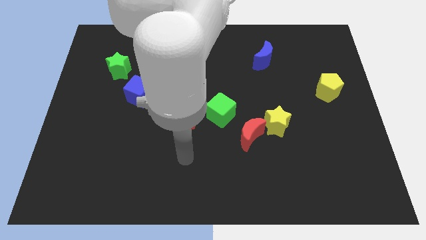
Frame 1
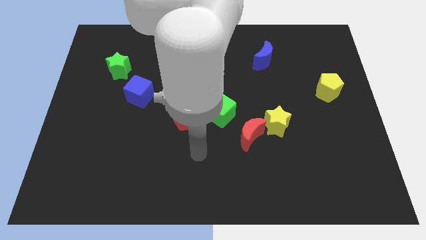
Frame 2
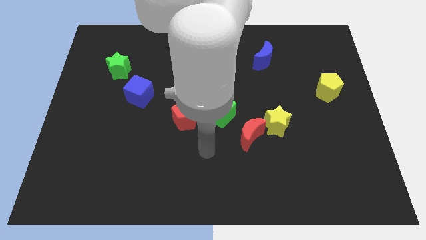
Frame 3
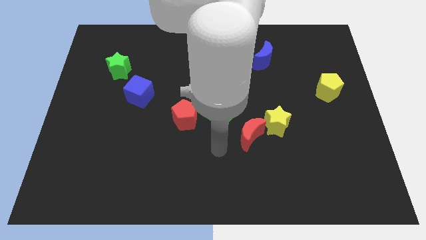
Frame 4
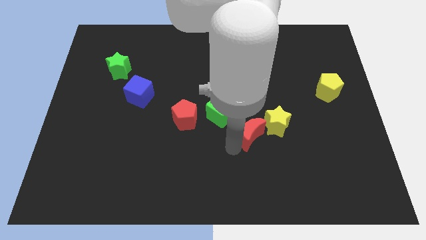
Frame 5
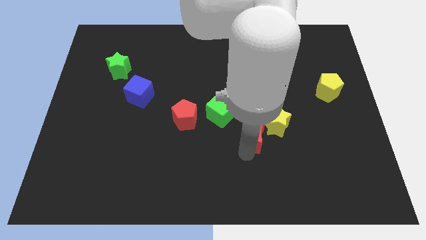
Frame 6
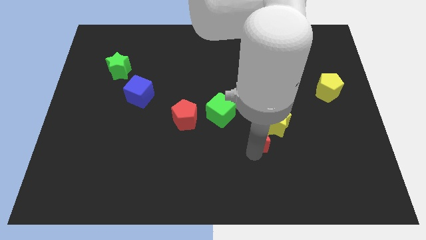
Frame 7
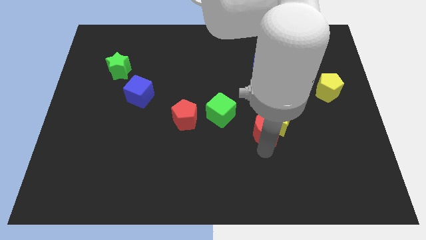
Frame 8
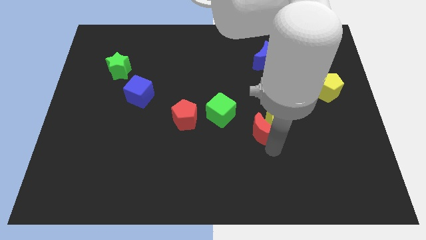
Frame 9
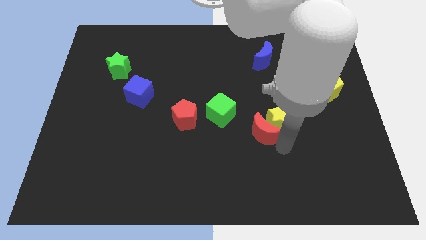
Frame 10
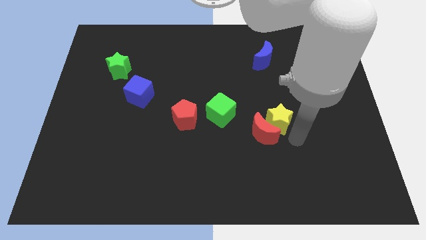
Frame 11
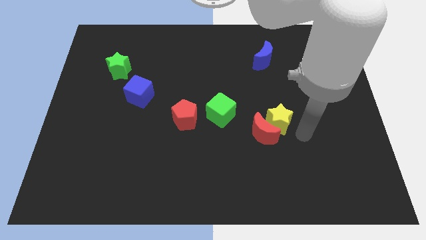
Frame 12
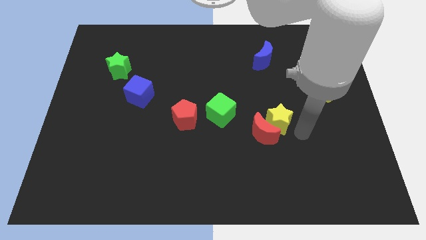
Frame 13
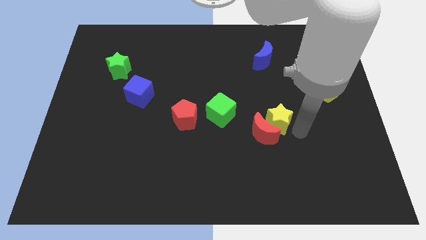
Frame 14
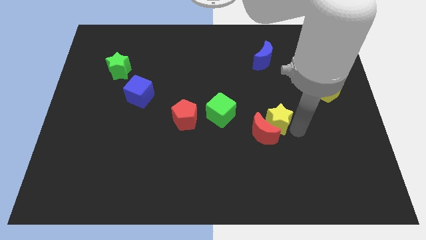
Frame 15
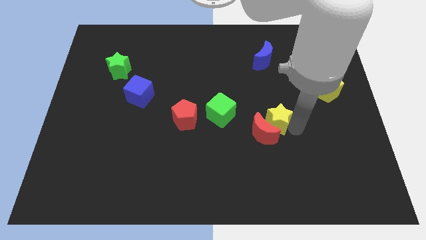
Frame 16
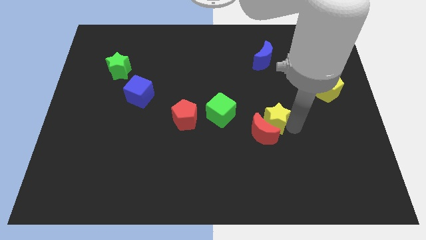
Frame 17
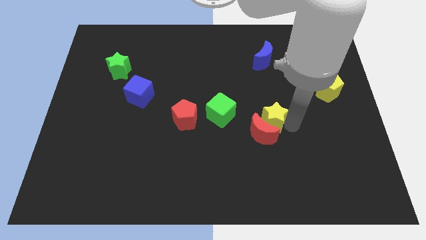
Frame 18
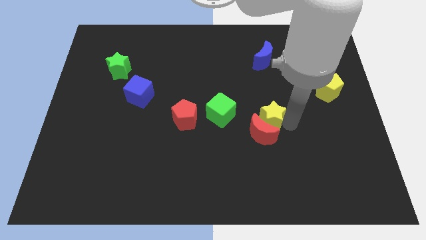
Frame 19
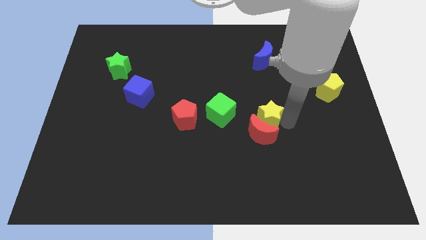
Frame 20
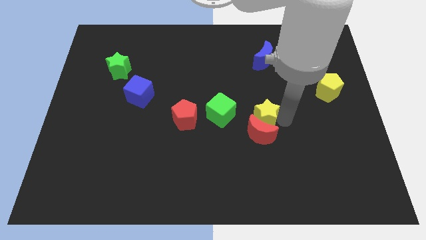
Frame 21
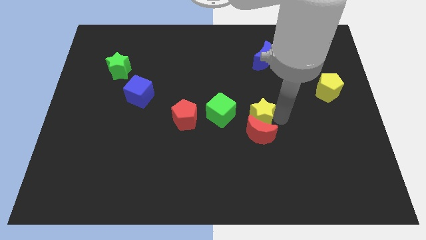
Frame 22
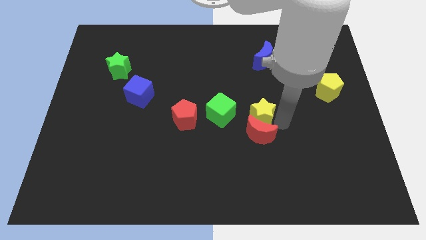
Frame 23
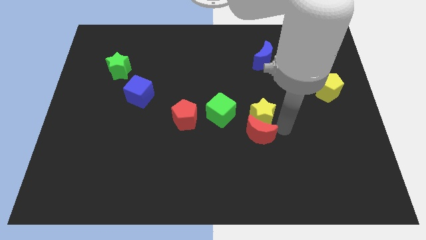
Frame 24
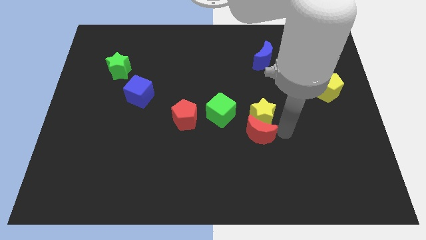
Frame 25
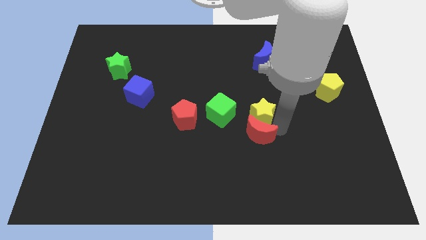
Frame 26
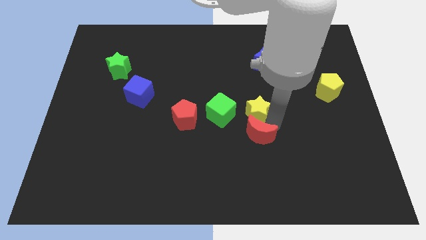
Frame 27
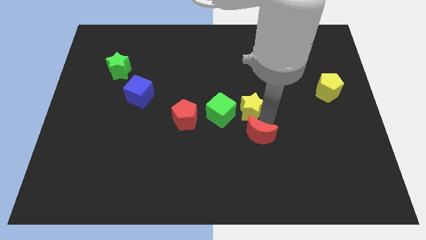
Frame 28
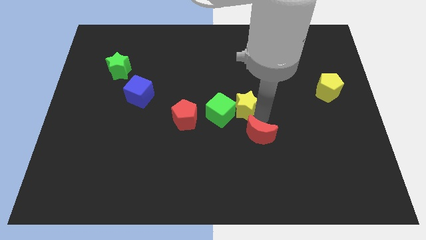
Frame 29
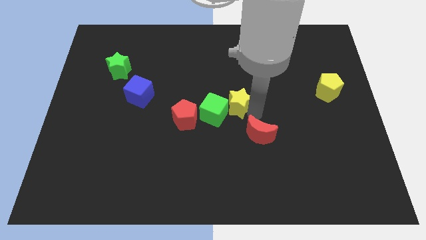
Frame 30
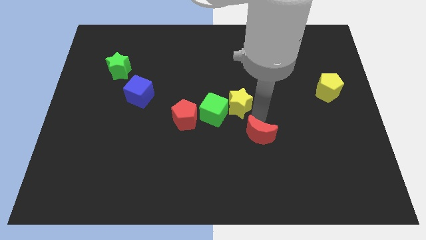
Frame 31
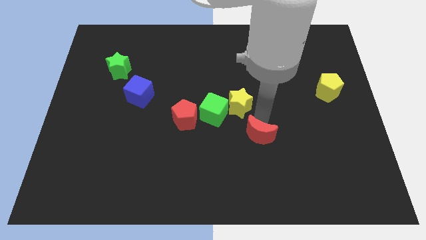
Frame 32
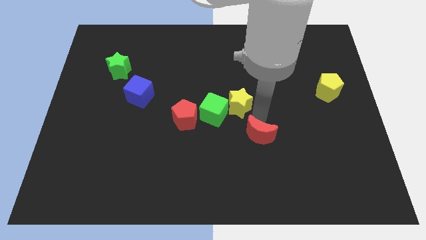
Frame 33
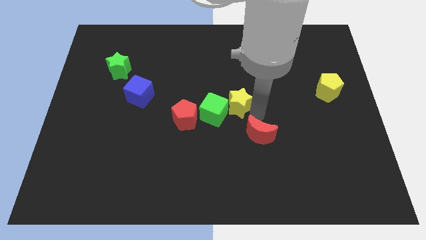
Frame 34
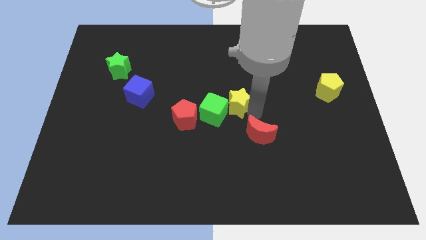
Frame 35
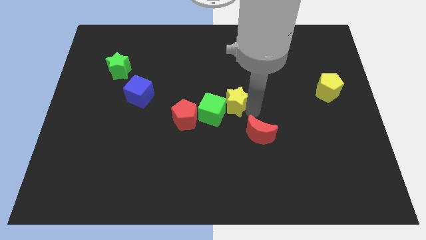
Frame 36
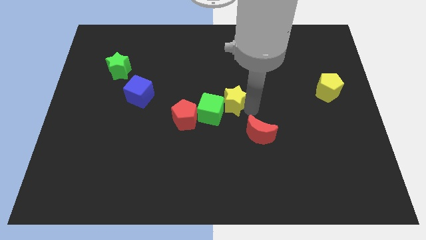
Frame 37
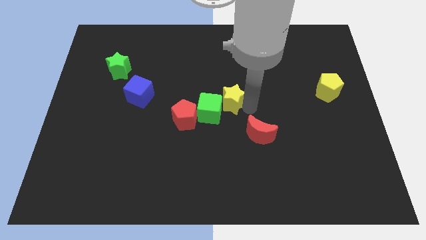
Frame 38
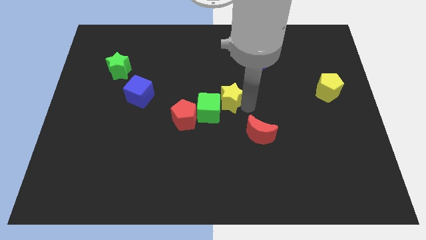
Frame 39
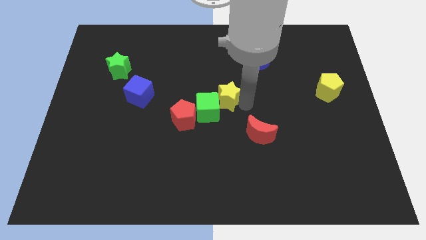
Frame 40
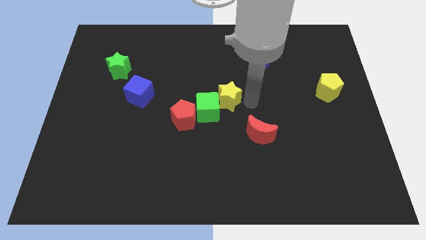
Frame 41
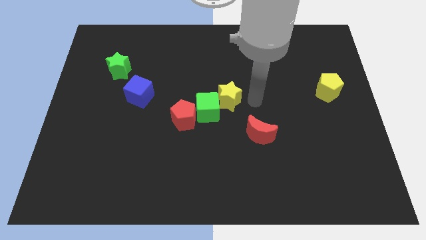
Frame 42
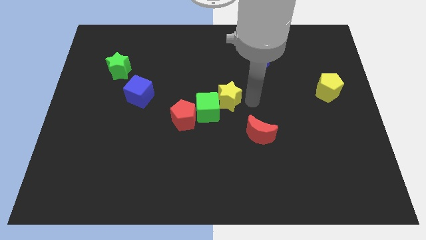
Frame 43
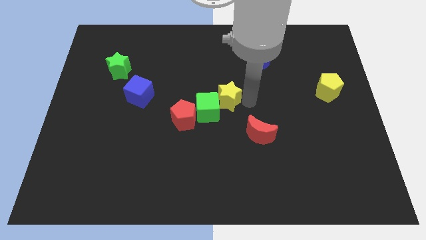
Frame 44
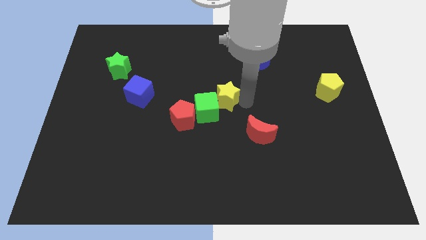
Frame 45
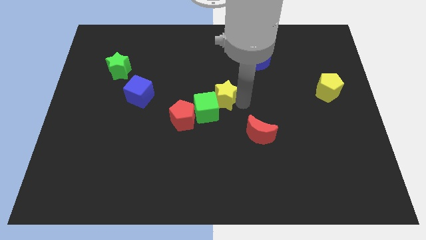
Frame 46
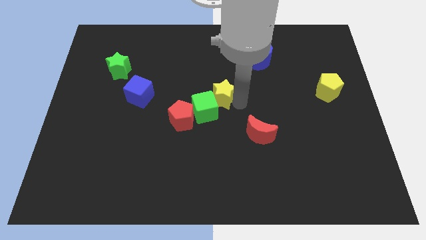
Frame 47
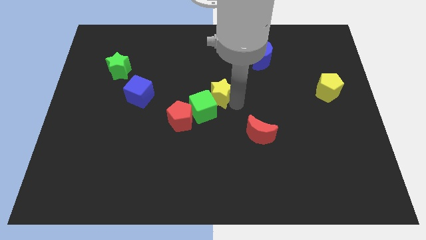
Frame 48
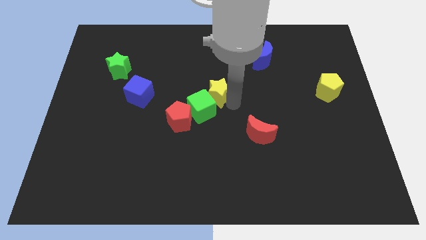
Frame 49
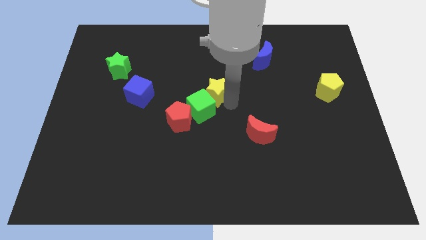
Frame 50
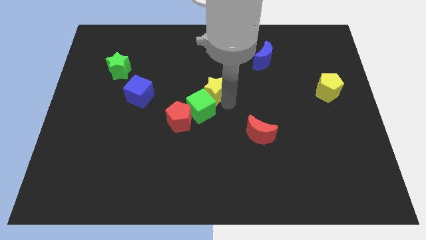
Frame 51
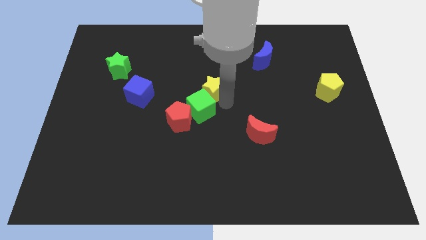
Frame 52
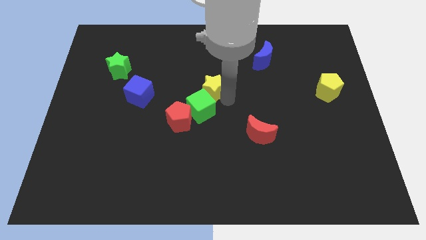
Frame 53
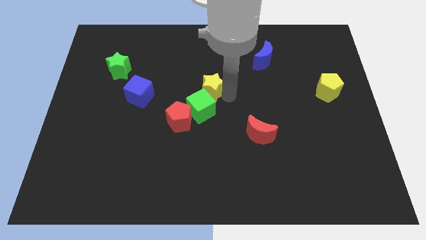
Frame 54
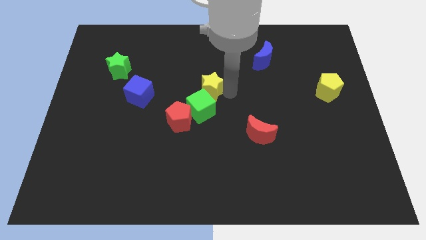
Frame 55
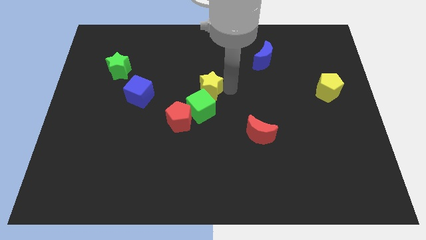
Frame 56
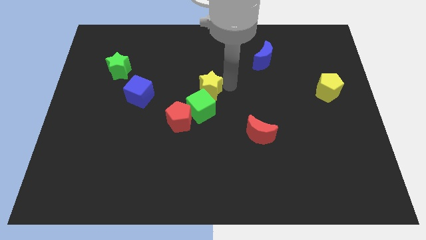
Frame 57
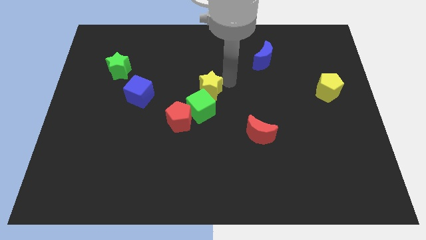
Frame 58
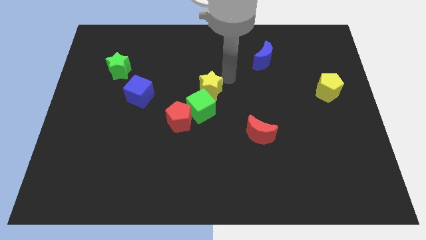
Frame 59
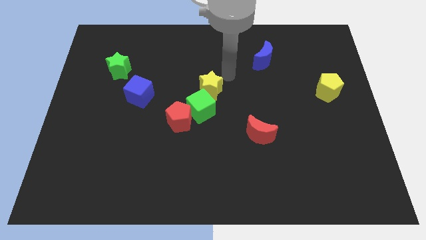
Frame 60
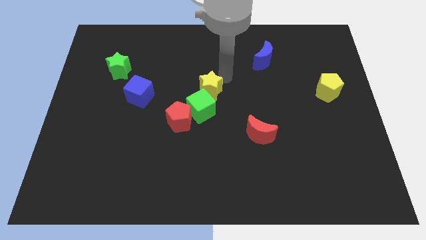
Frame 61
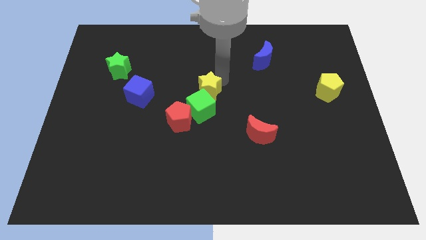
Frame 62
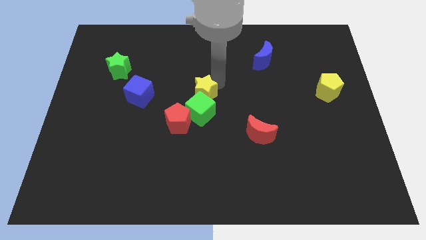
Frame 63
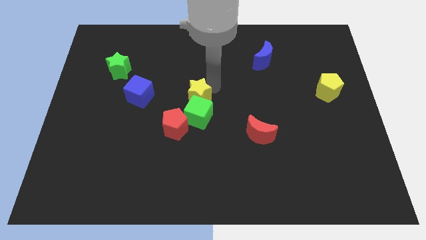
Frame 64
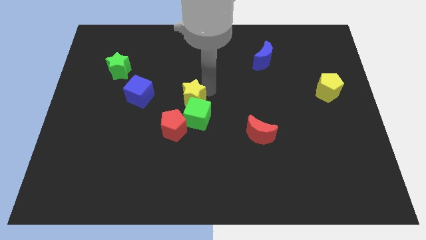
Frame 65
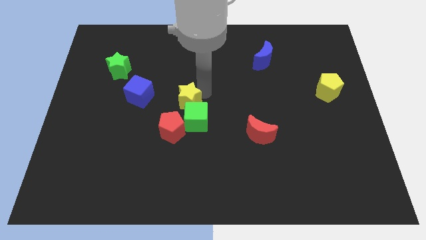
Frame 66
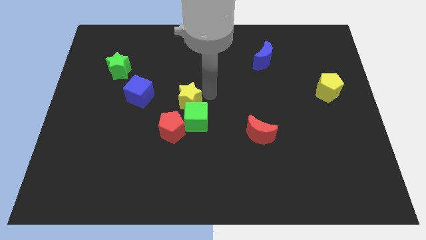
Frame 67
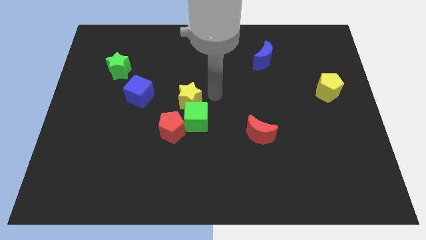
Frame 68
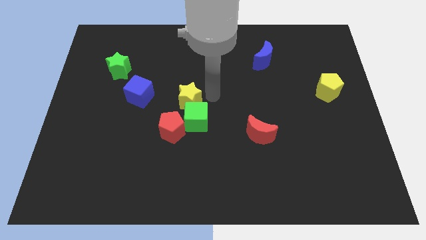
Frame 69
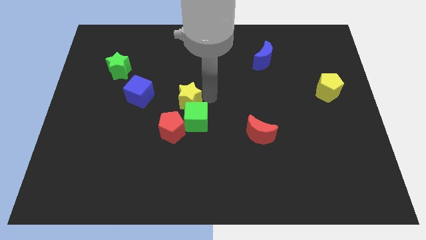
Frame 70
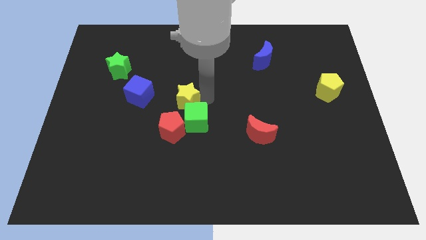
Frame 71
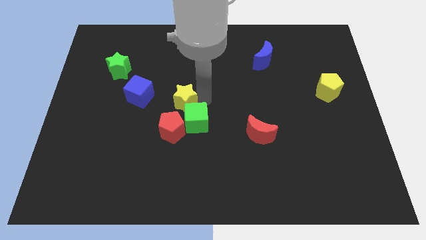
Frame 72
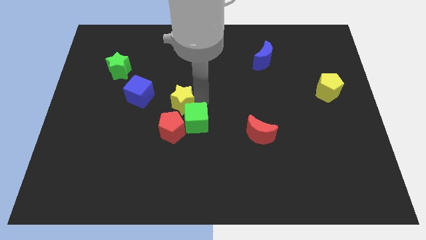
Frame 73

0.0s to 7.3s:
slide the yellow star left
